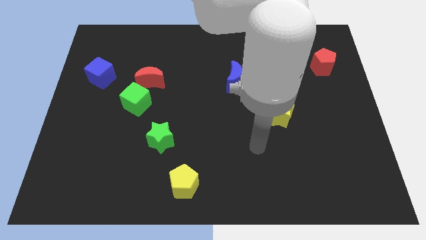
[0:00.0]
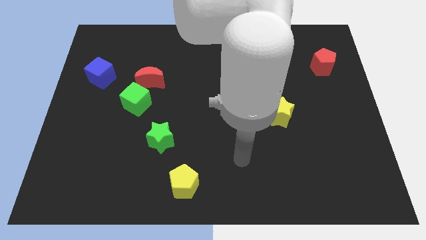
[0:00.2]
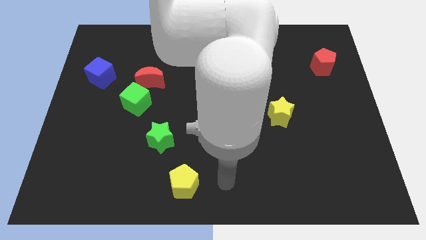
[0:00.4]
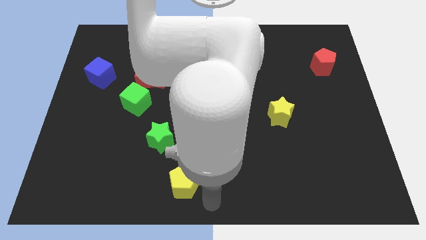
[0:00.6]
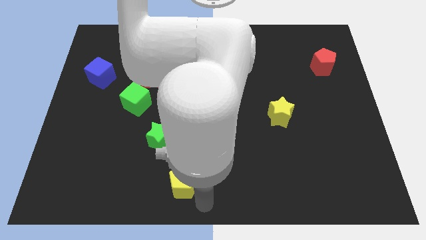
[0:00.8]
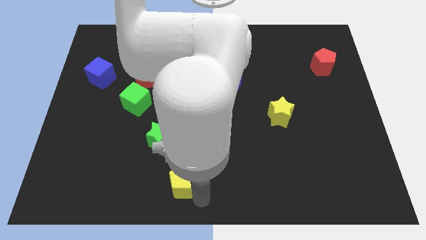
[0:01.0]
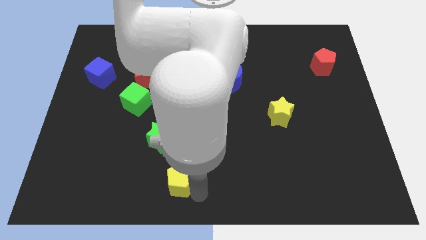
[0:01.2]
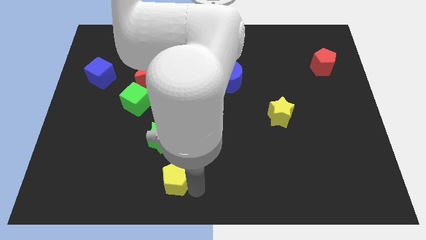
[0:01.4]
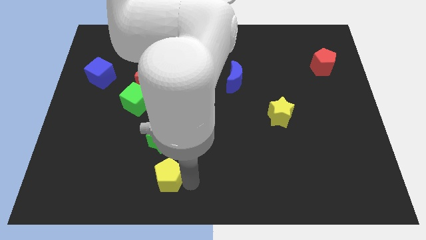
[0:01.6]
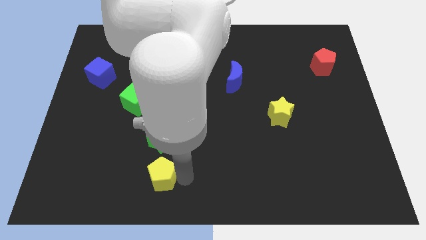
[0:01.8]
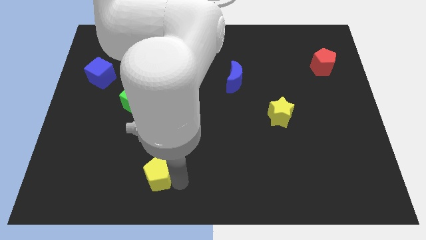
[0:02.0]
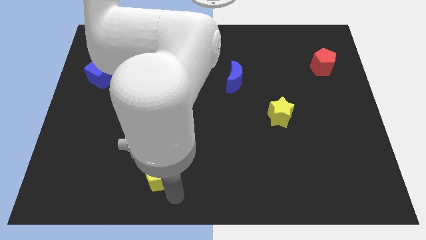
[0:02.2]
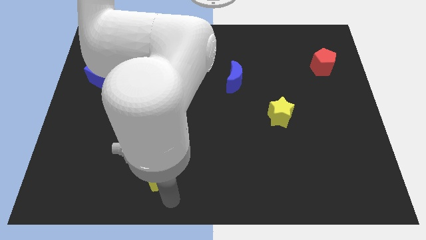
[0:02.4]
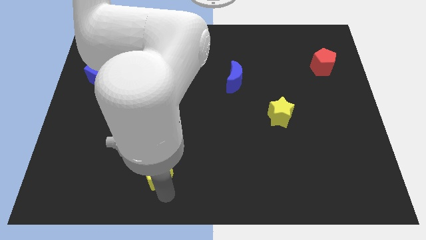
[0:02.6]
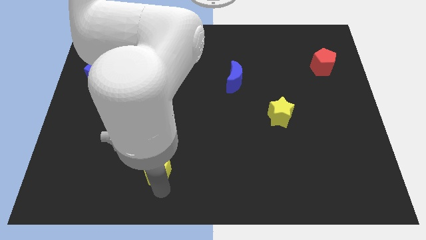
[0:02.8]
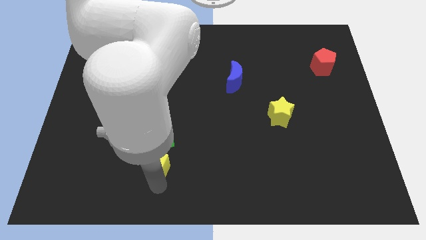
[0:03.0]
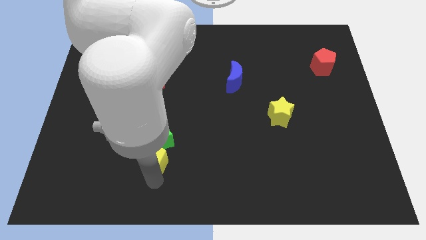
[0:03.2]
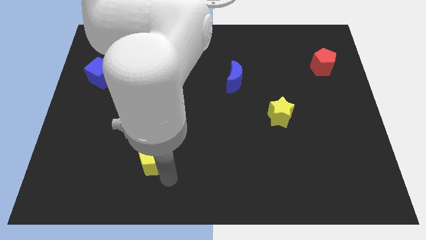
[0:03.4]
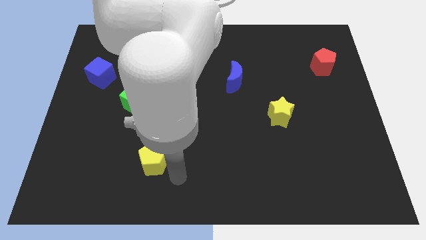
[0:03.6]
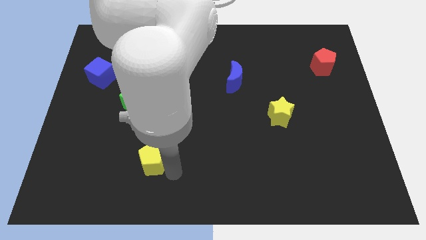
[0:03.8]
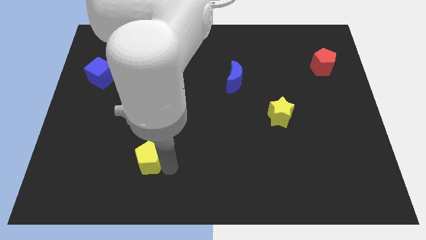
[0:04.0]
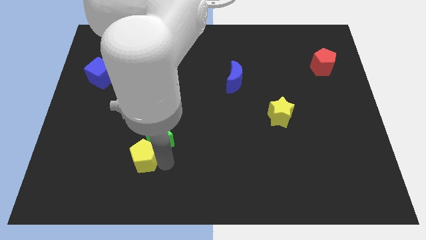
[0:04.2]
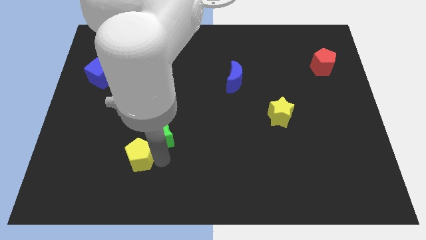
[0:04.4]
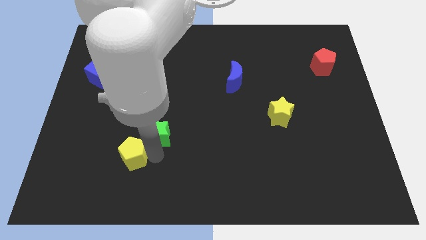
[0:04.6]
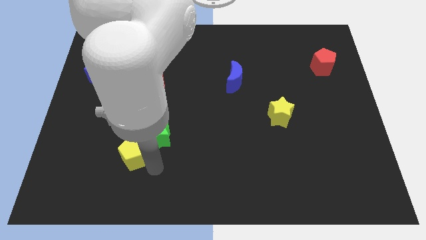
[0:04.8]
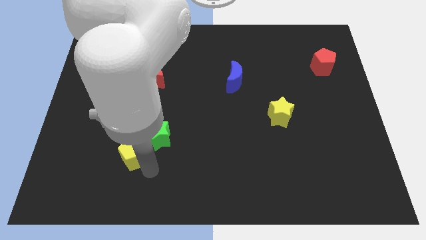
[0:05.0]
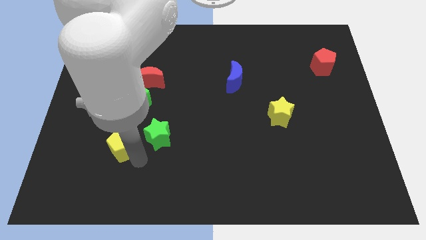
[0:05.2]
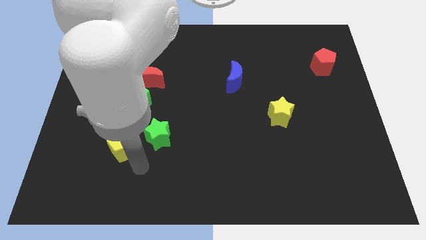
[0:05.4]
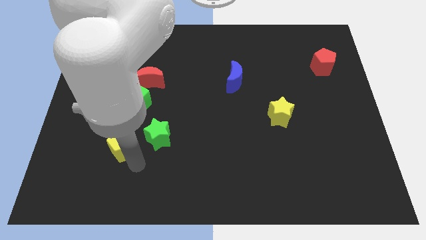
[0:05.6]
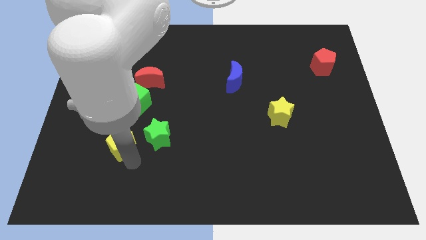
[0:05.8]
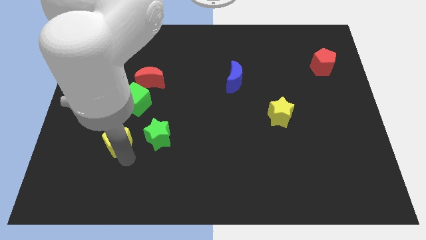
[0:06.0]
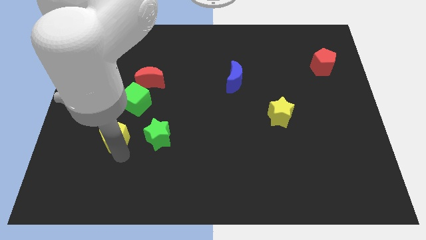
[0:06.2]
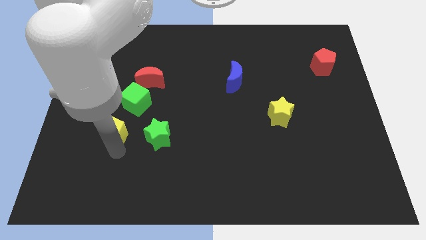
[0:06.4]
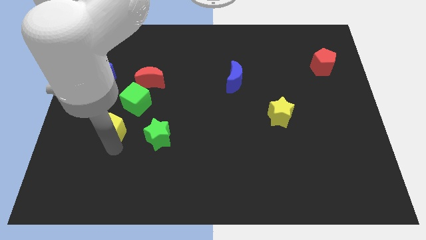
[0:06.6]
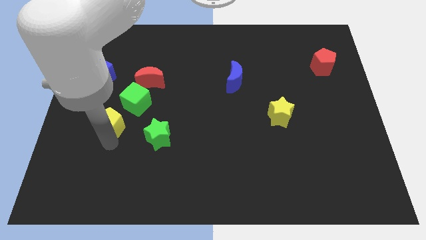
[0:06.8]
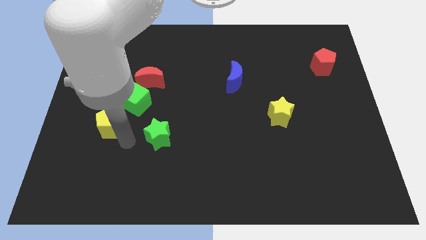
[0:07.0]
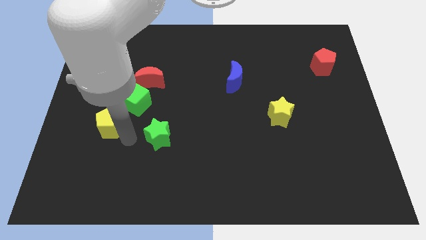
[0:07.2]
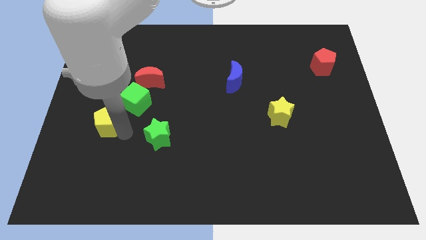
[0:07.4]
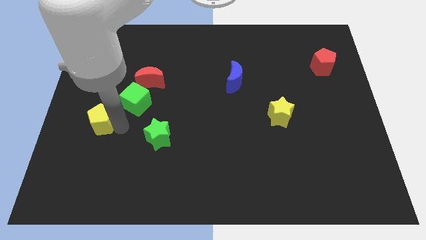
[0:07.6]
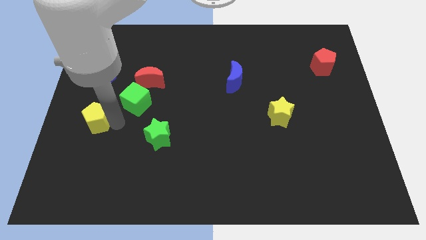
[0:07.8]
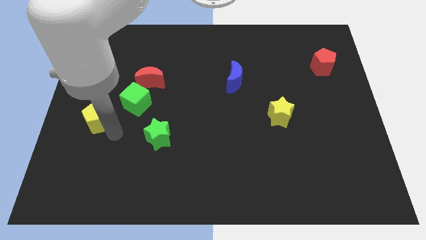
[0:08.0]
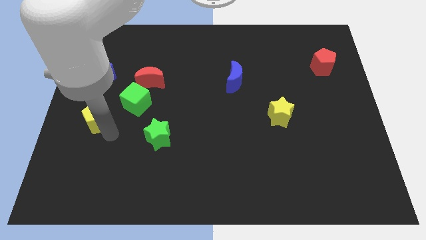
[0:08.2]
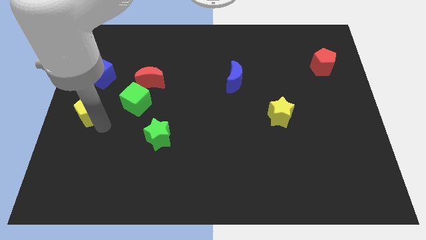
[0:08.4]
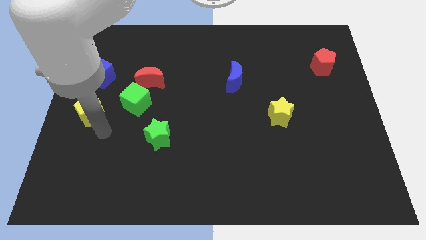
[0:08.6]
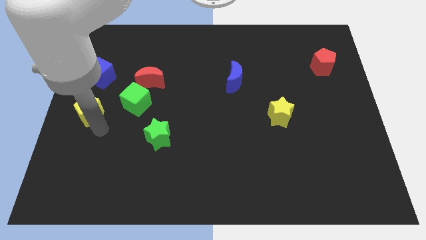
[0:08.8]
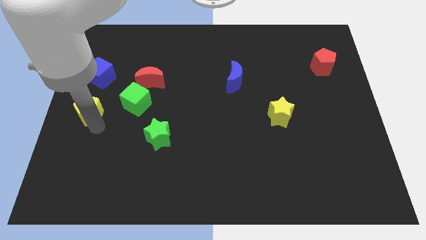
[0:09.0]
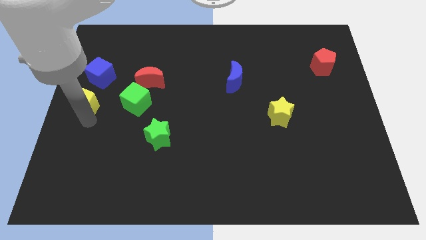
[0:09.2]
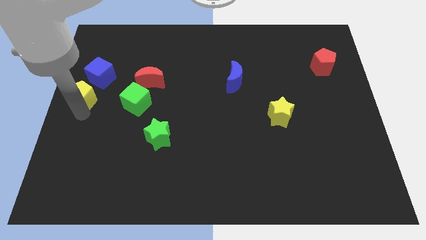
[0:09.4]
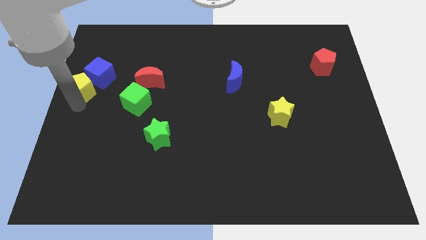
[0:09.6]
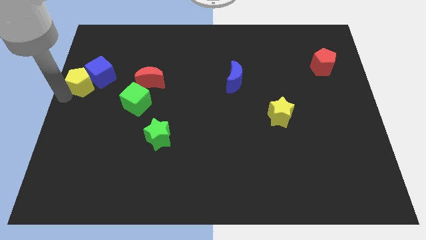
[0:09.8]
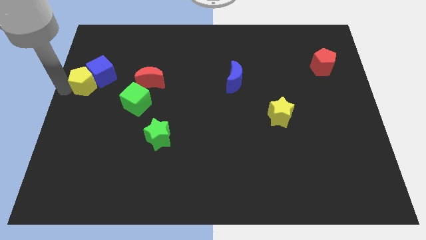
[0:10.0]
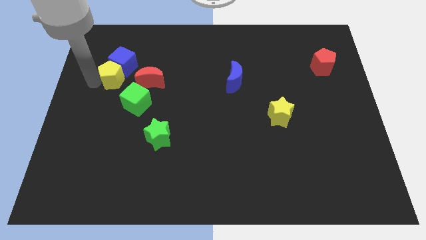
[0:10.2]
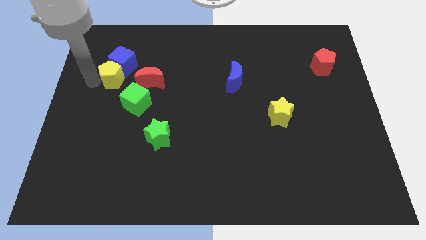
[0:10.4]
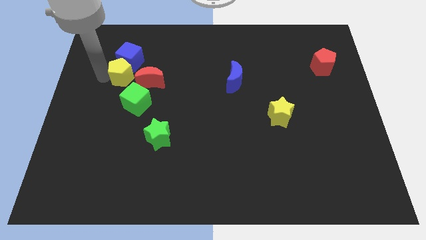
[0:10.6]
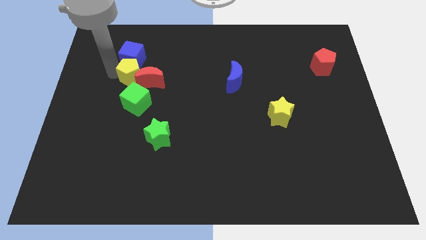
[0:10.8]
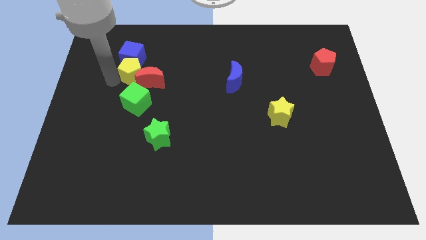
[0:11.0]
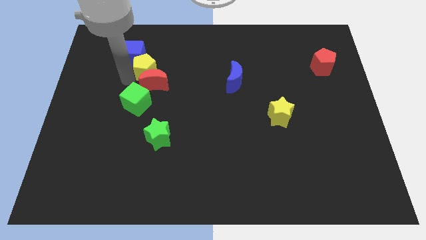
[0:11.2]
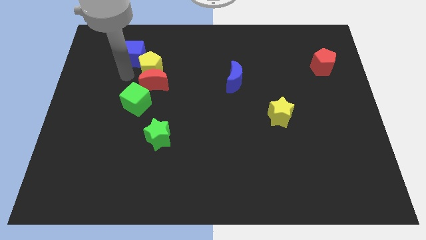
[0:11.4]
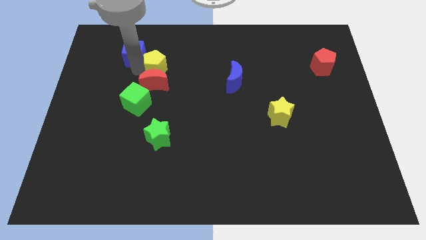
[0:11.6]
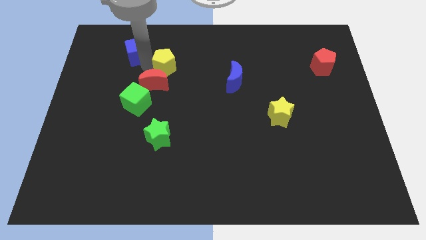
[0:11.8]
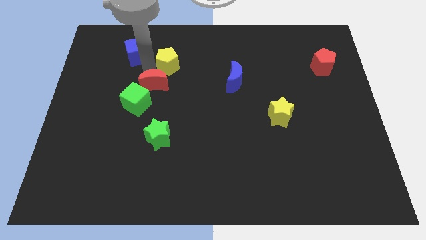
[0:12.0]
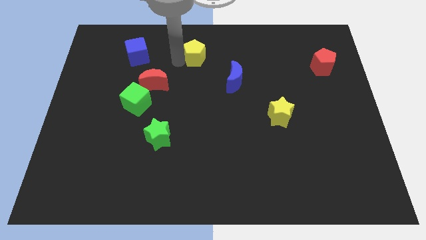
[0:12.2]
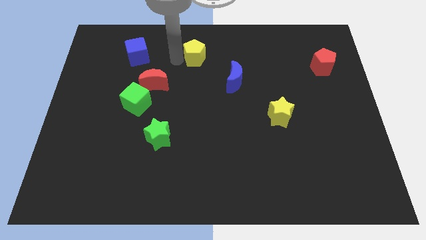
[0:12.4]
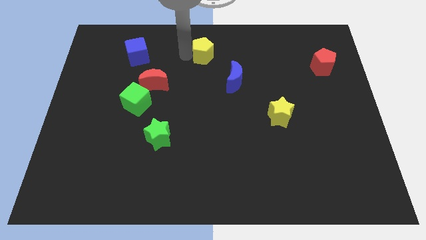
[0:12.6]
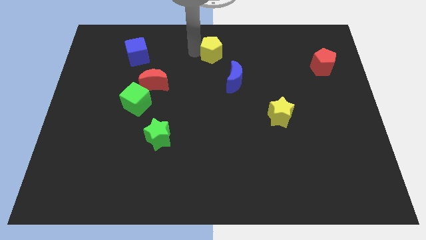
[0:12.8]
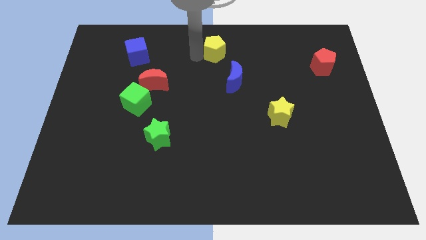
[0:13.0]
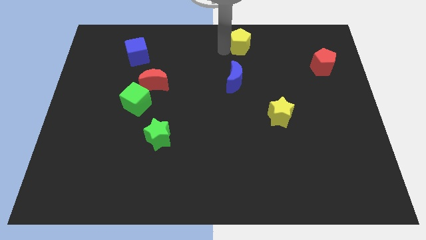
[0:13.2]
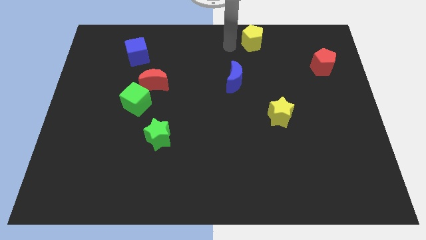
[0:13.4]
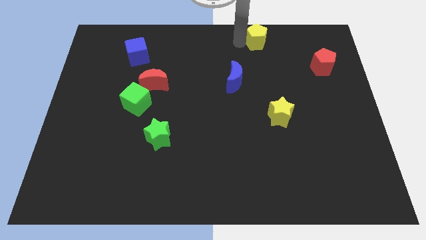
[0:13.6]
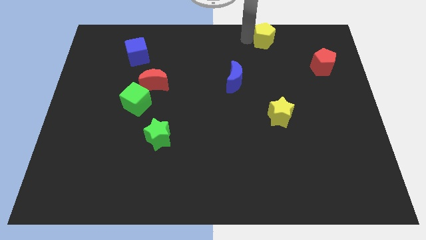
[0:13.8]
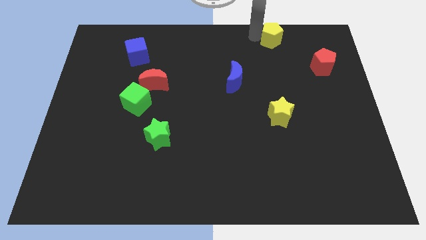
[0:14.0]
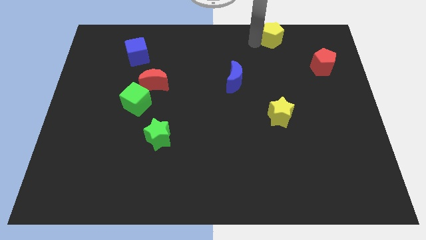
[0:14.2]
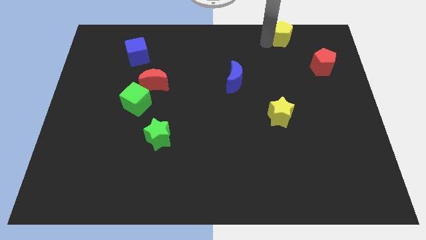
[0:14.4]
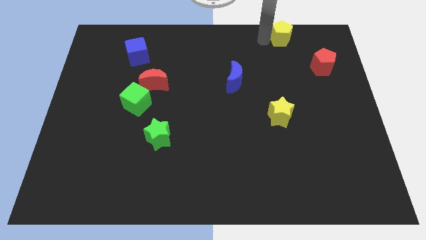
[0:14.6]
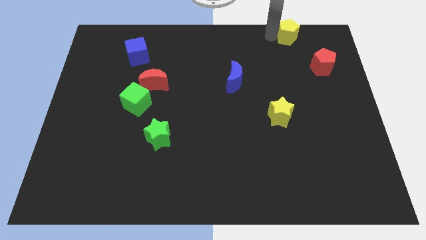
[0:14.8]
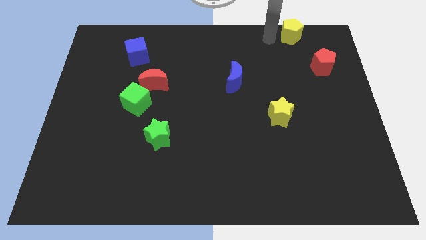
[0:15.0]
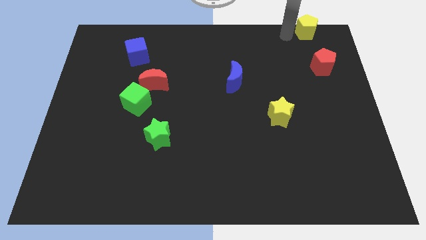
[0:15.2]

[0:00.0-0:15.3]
put the yellow pentagon to the top right
